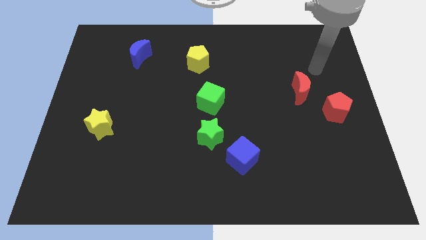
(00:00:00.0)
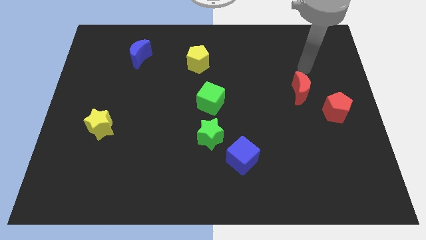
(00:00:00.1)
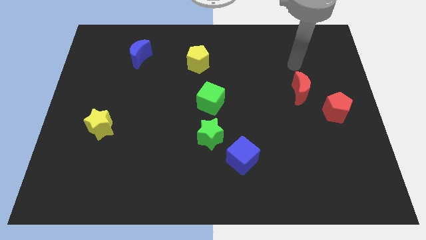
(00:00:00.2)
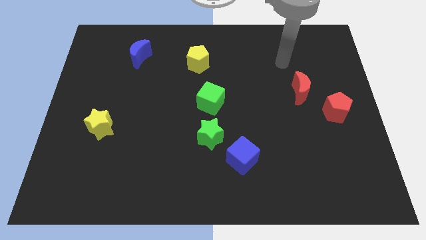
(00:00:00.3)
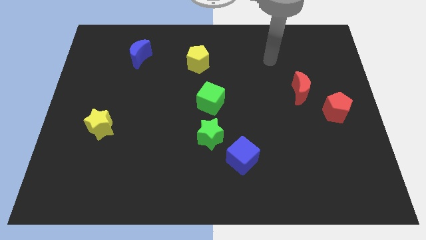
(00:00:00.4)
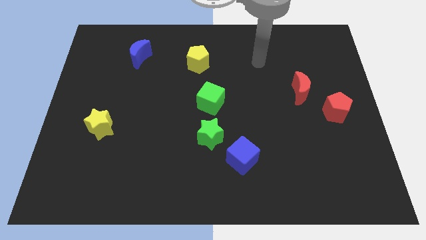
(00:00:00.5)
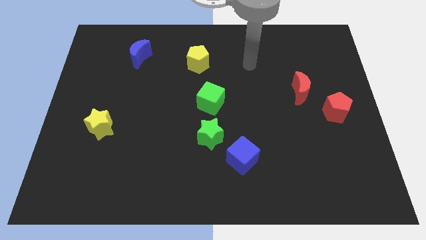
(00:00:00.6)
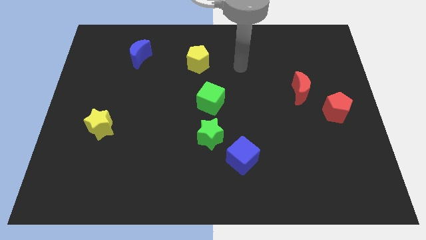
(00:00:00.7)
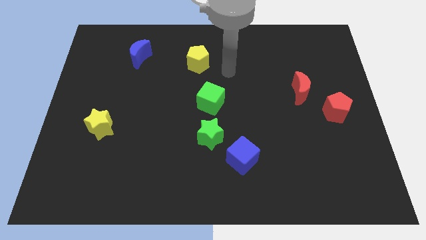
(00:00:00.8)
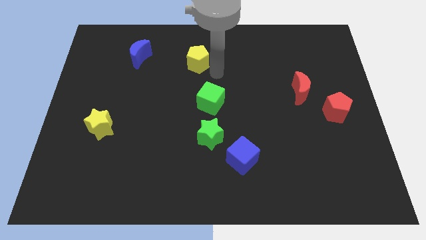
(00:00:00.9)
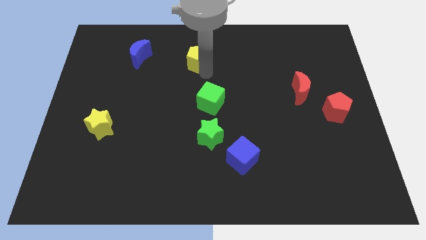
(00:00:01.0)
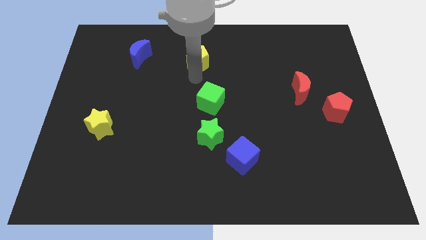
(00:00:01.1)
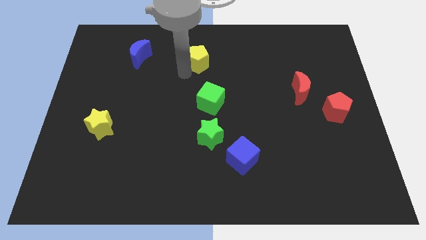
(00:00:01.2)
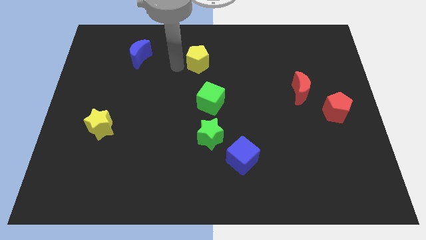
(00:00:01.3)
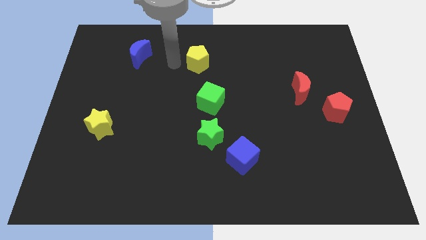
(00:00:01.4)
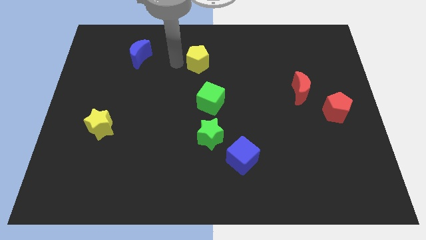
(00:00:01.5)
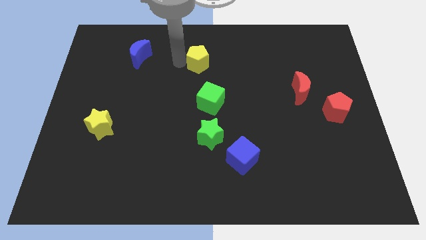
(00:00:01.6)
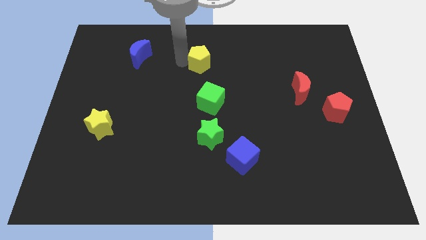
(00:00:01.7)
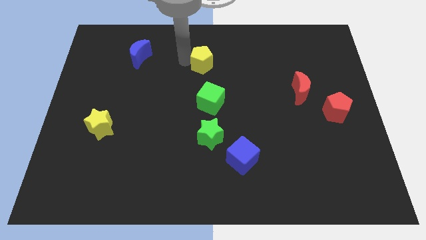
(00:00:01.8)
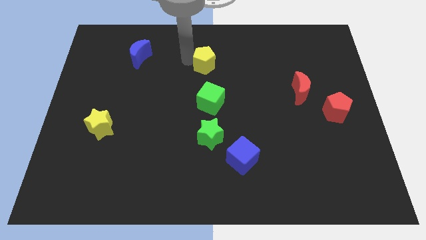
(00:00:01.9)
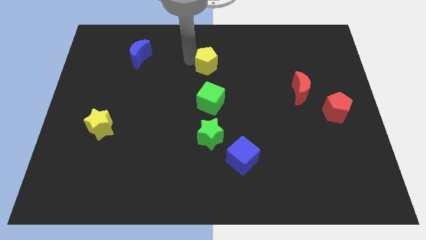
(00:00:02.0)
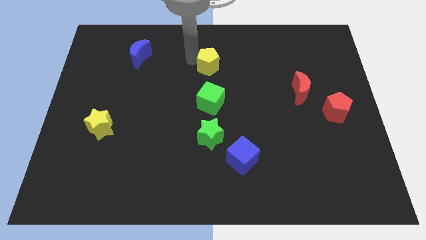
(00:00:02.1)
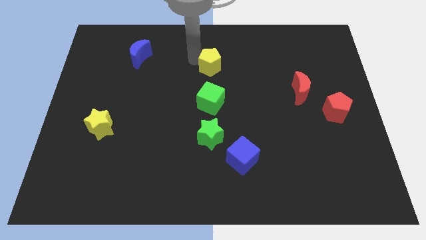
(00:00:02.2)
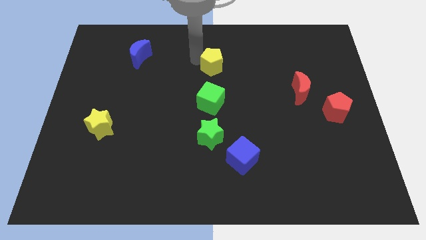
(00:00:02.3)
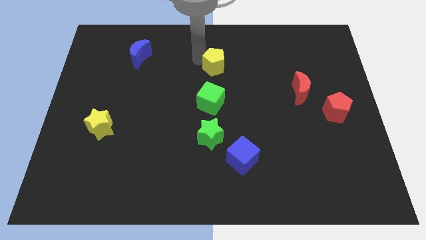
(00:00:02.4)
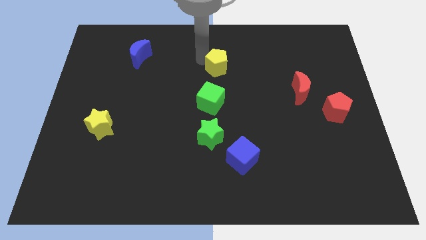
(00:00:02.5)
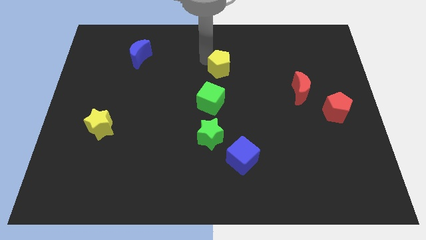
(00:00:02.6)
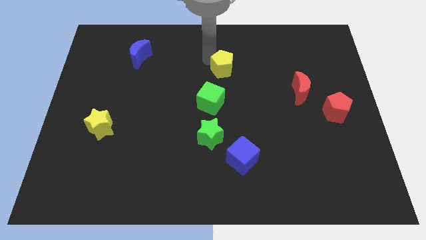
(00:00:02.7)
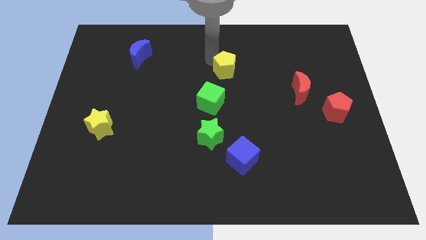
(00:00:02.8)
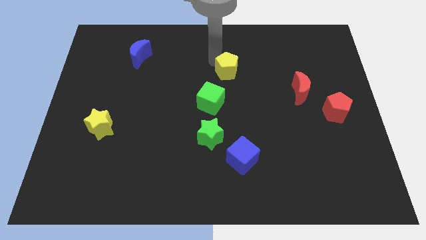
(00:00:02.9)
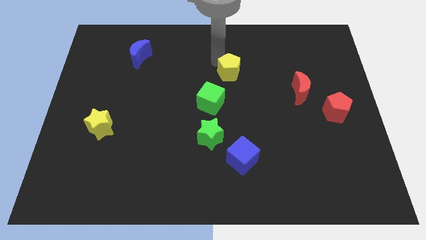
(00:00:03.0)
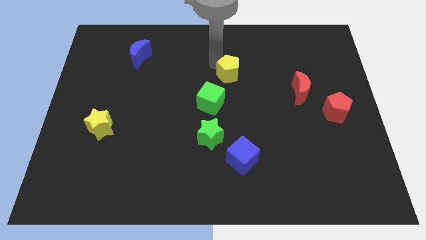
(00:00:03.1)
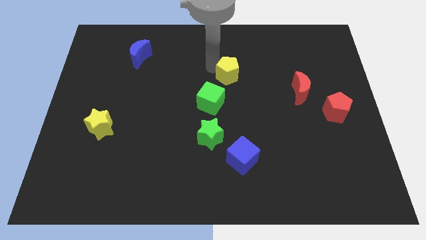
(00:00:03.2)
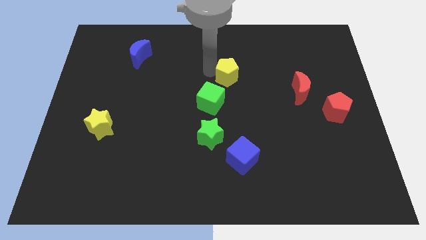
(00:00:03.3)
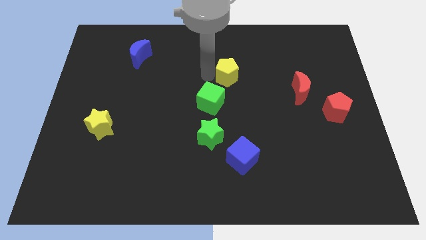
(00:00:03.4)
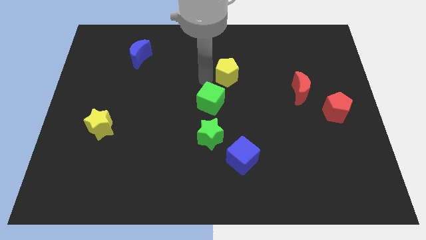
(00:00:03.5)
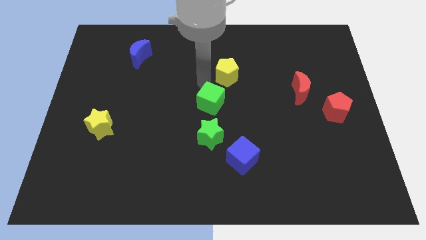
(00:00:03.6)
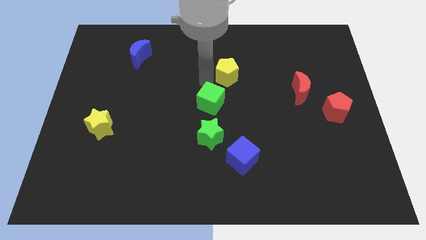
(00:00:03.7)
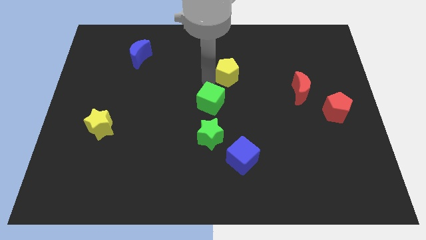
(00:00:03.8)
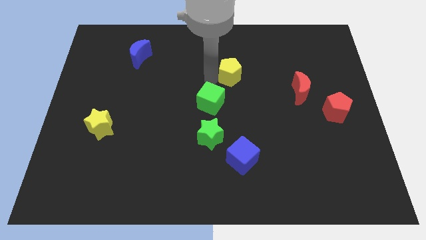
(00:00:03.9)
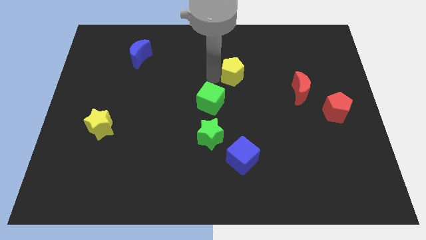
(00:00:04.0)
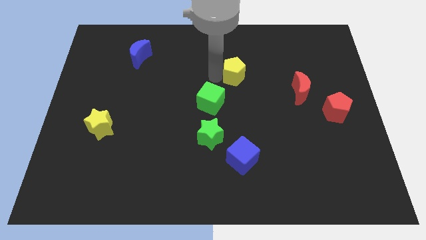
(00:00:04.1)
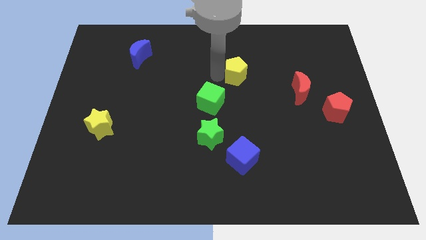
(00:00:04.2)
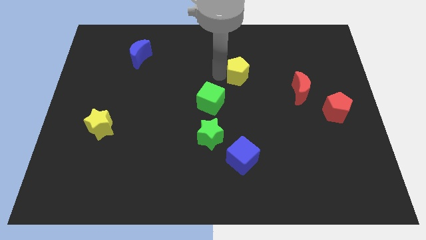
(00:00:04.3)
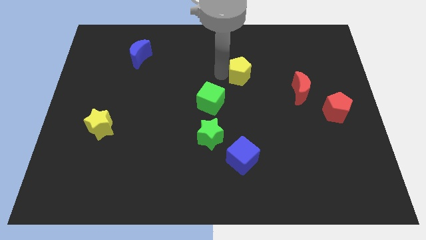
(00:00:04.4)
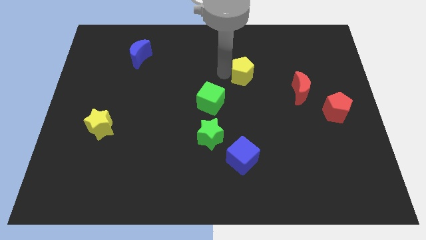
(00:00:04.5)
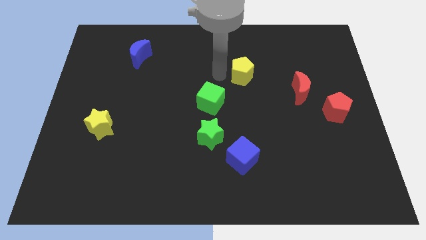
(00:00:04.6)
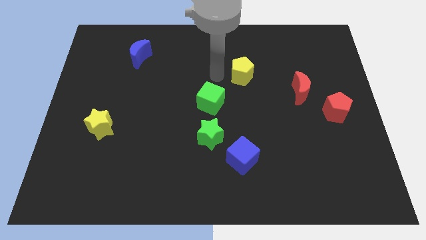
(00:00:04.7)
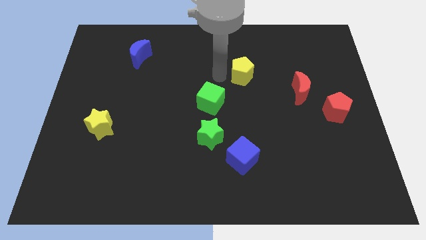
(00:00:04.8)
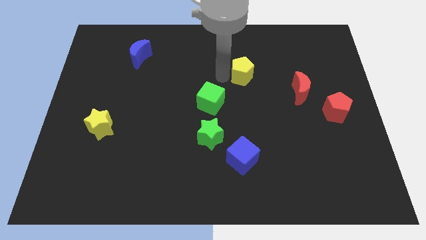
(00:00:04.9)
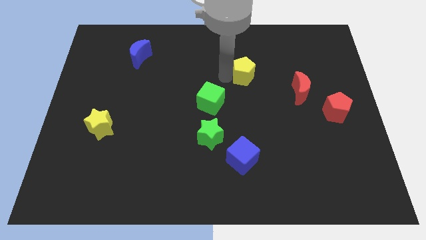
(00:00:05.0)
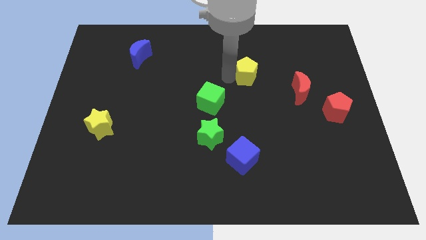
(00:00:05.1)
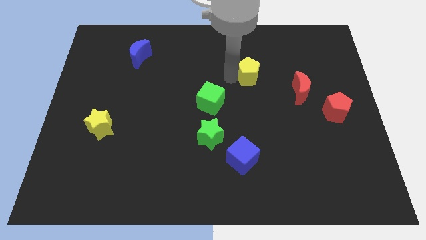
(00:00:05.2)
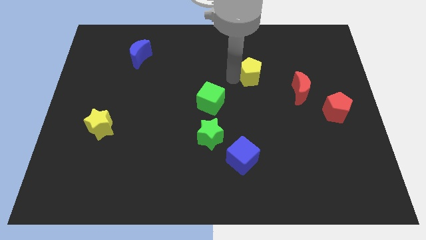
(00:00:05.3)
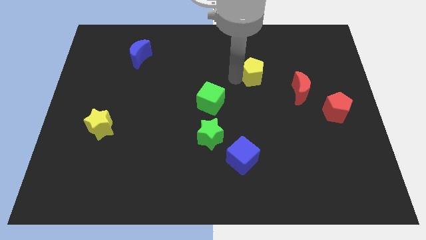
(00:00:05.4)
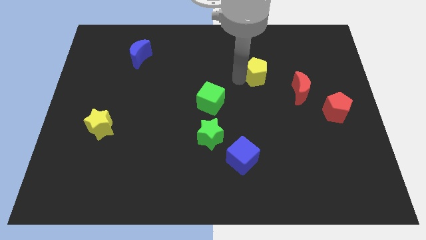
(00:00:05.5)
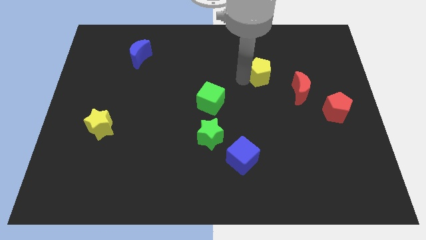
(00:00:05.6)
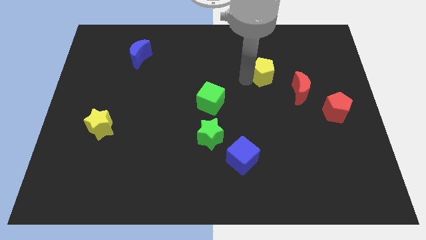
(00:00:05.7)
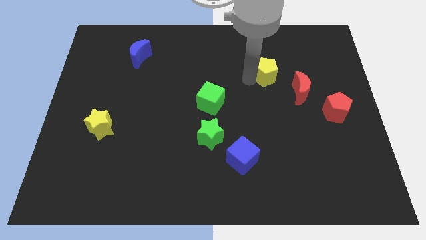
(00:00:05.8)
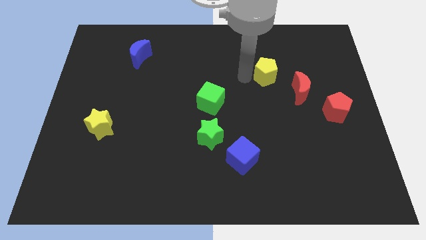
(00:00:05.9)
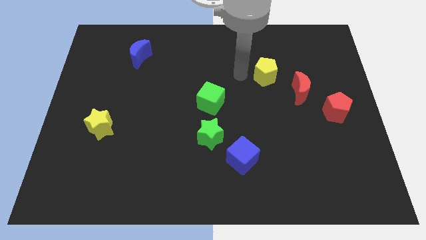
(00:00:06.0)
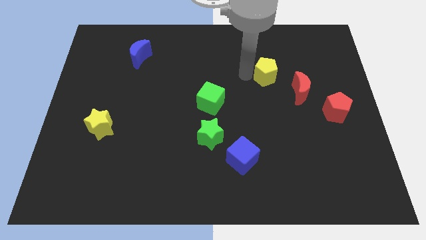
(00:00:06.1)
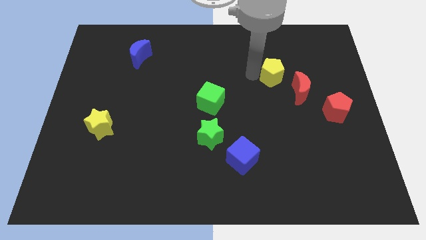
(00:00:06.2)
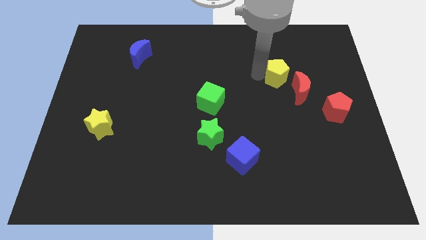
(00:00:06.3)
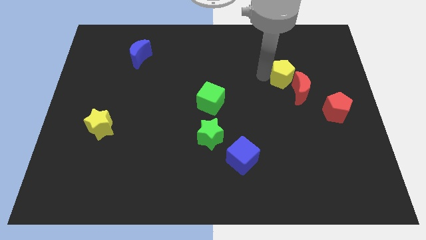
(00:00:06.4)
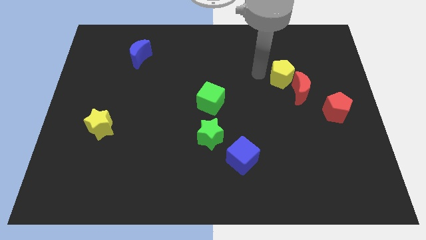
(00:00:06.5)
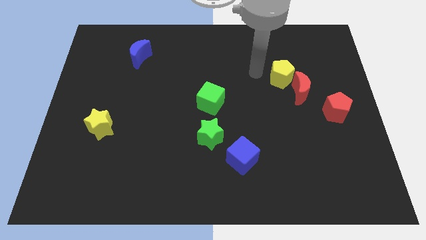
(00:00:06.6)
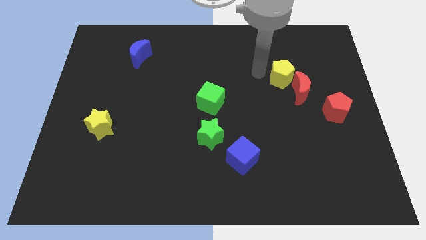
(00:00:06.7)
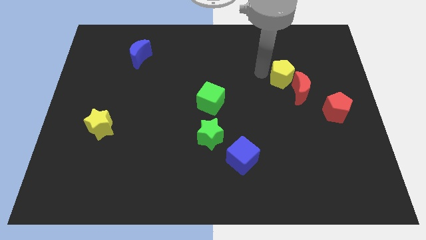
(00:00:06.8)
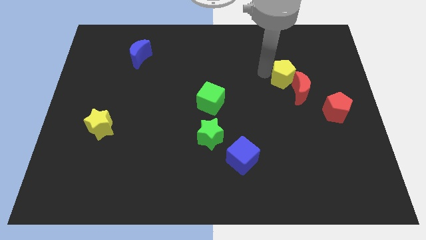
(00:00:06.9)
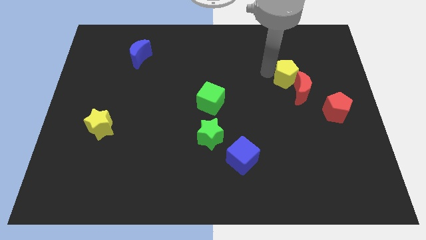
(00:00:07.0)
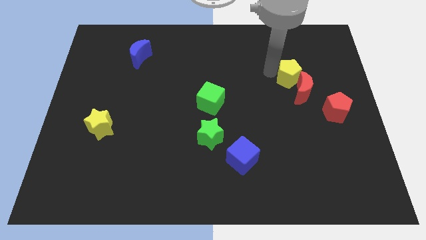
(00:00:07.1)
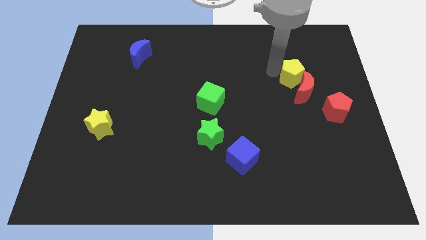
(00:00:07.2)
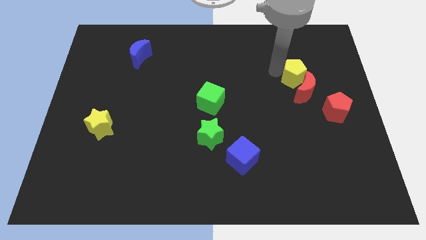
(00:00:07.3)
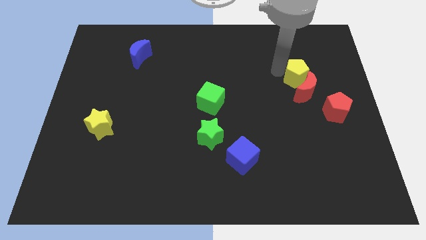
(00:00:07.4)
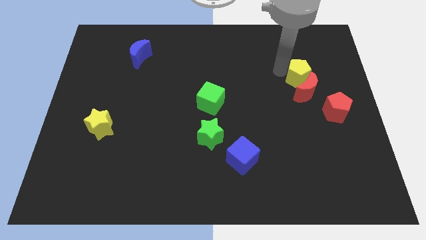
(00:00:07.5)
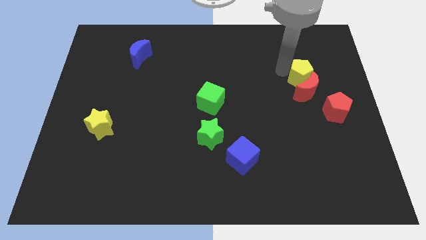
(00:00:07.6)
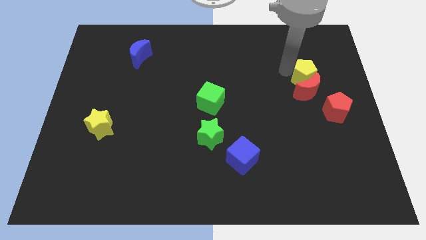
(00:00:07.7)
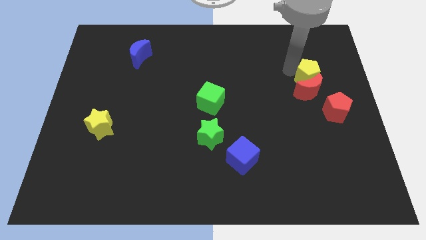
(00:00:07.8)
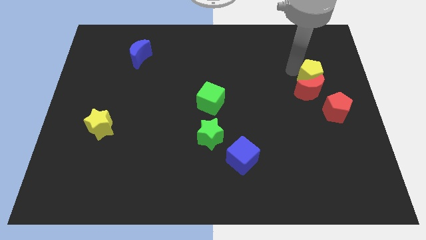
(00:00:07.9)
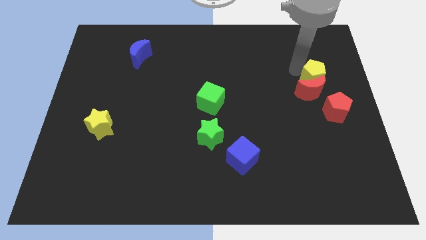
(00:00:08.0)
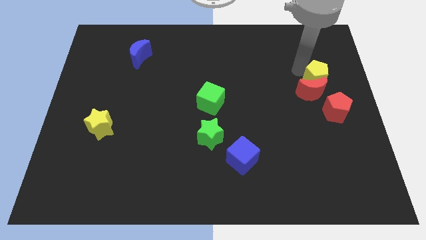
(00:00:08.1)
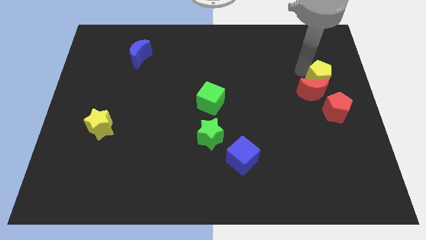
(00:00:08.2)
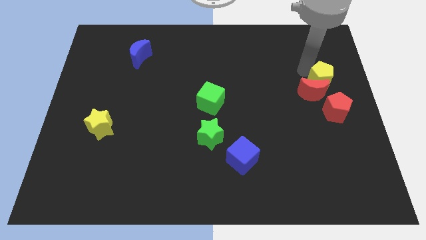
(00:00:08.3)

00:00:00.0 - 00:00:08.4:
slide the yellow pentagon to the right side
